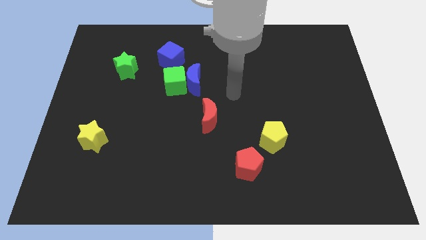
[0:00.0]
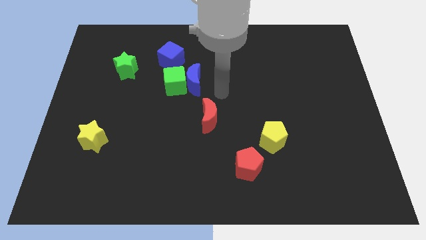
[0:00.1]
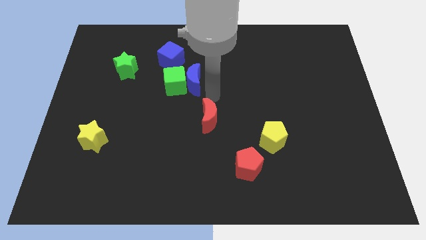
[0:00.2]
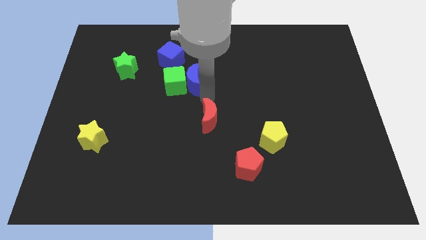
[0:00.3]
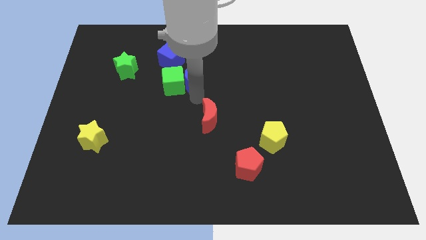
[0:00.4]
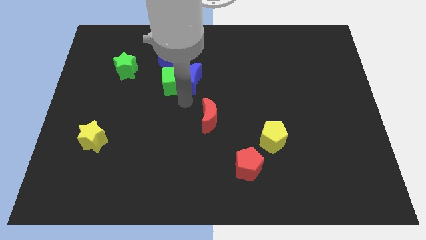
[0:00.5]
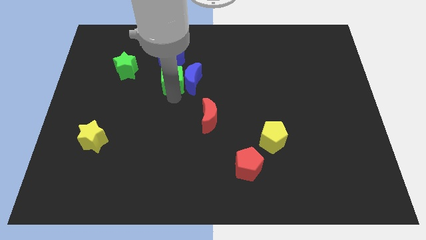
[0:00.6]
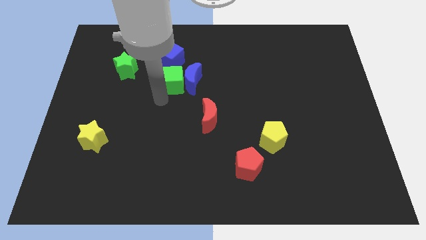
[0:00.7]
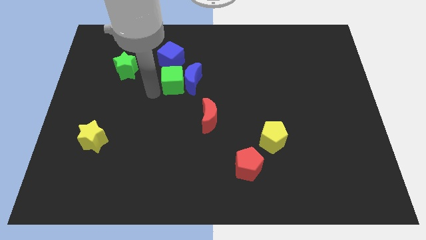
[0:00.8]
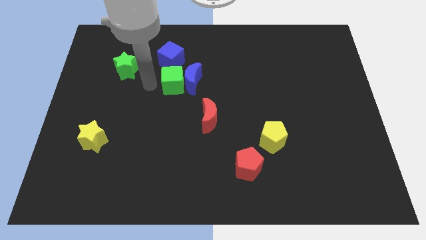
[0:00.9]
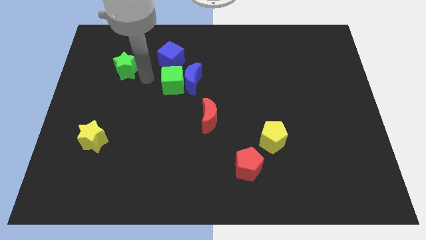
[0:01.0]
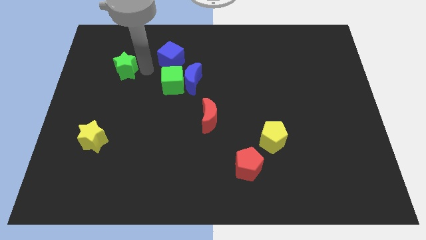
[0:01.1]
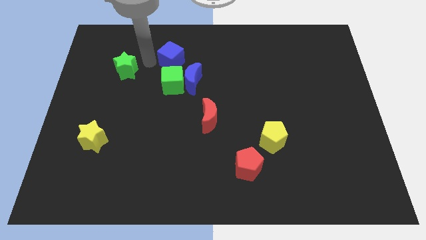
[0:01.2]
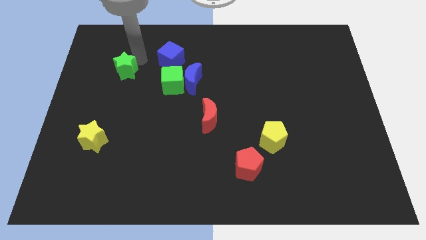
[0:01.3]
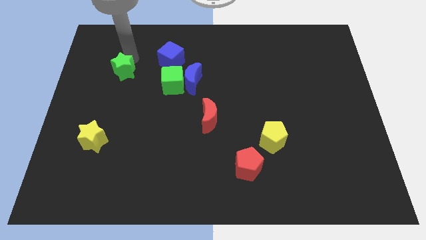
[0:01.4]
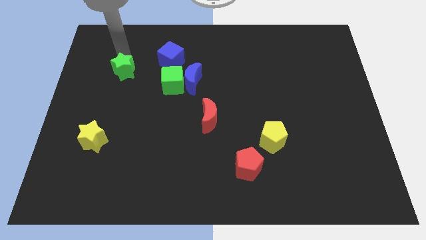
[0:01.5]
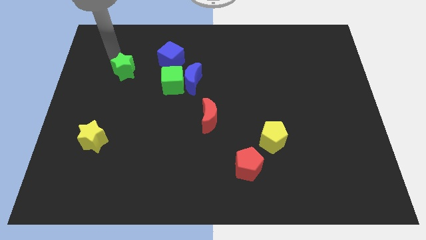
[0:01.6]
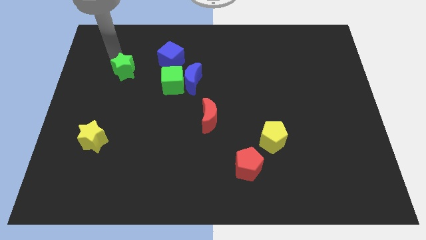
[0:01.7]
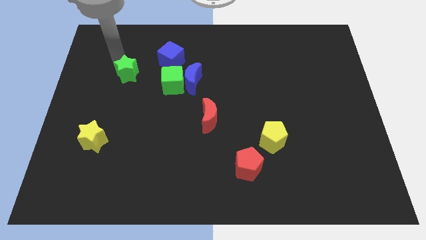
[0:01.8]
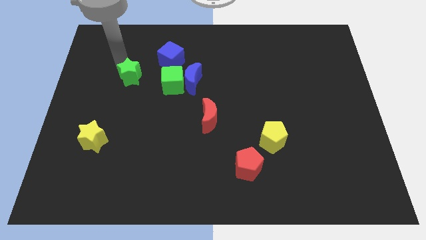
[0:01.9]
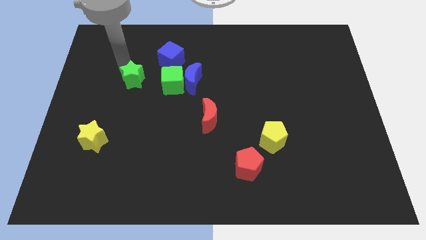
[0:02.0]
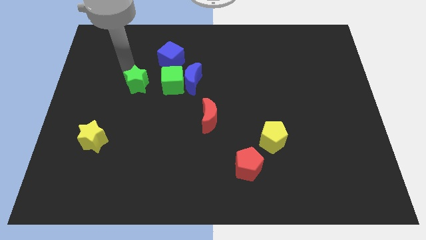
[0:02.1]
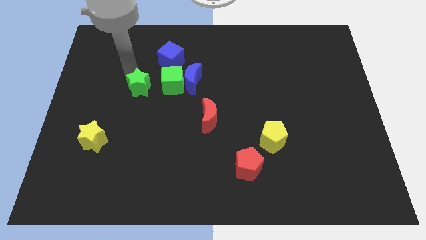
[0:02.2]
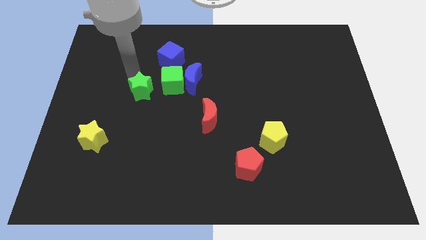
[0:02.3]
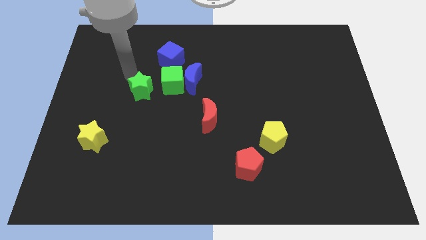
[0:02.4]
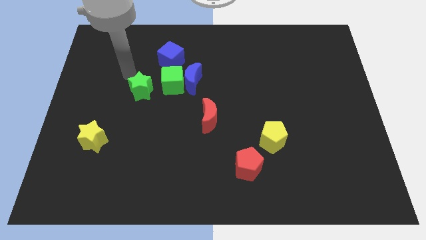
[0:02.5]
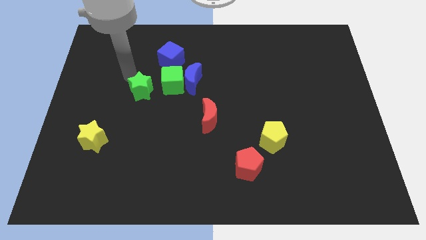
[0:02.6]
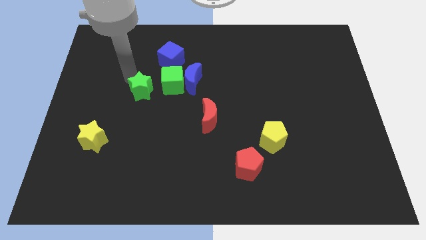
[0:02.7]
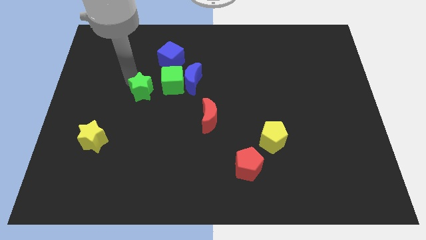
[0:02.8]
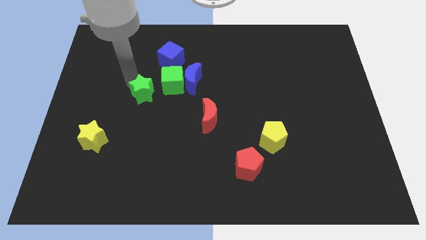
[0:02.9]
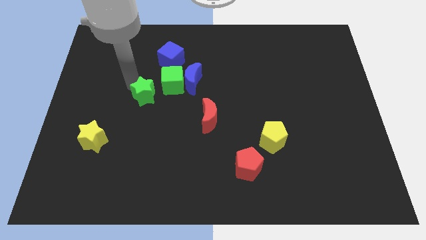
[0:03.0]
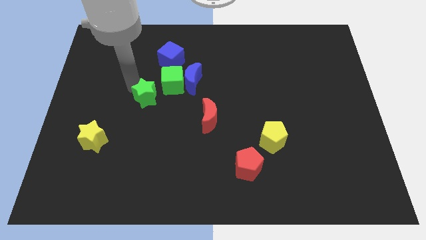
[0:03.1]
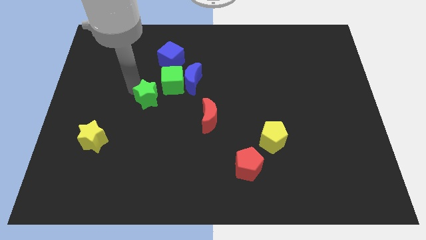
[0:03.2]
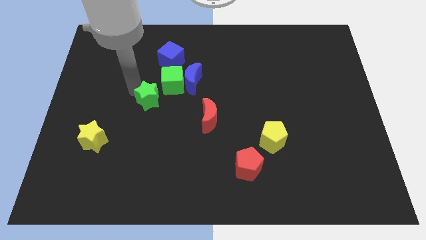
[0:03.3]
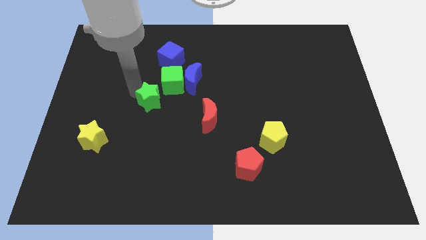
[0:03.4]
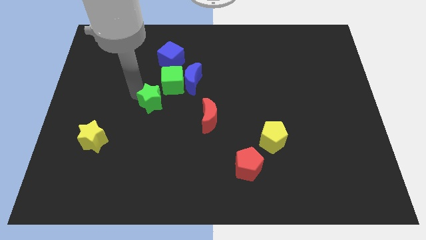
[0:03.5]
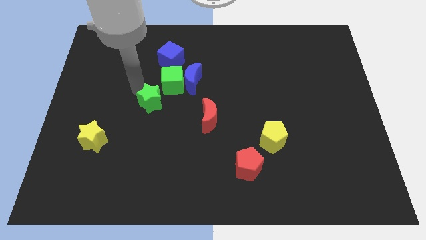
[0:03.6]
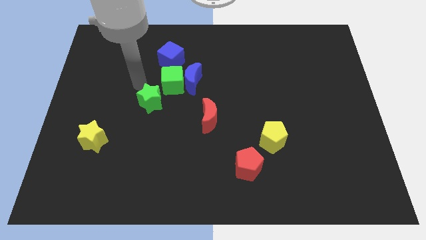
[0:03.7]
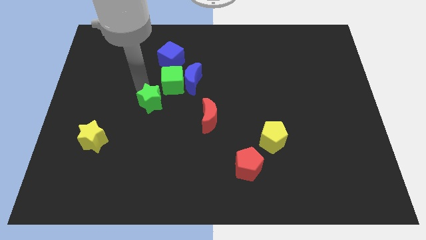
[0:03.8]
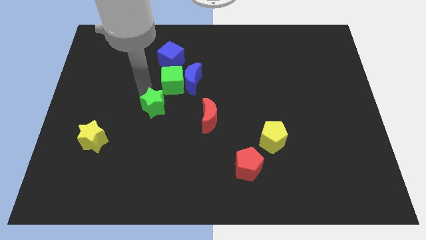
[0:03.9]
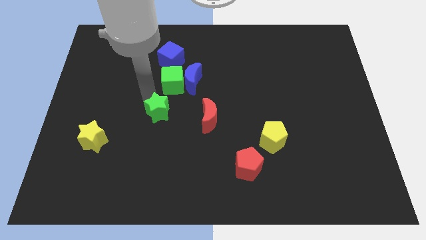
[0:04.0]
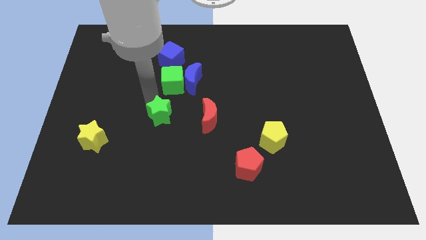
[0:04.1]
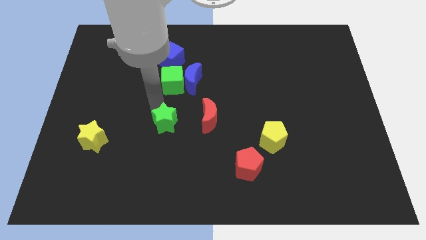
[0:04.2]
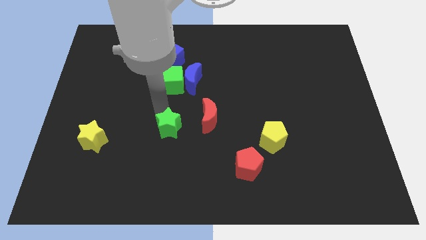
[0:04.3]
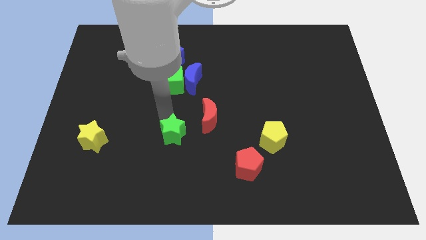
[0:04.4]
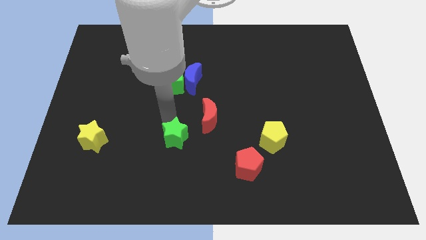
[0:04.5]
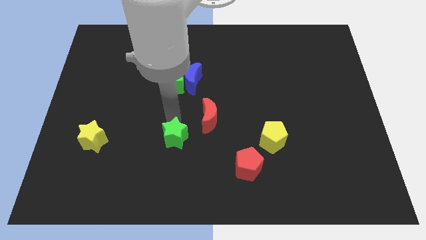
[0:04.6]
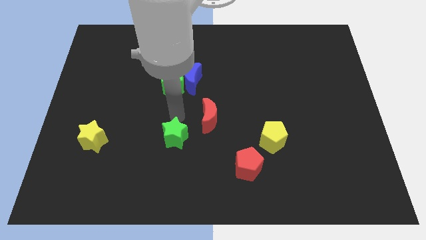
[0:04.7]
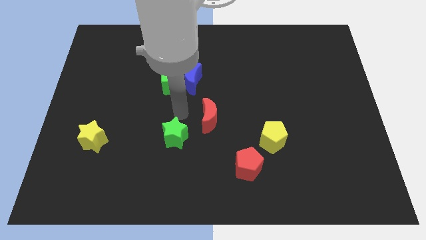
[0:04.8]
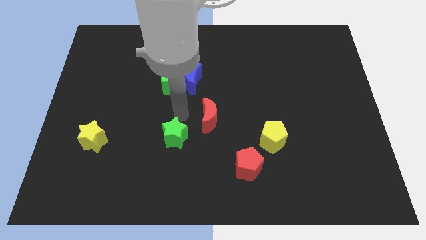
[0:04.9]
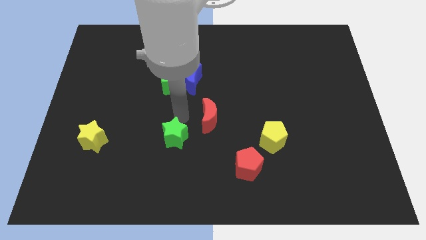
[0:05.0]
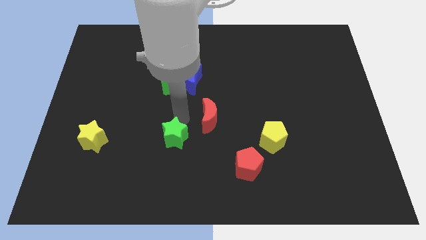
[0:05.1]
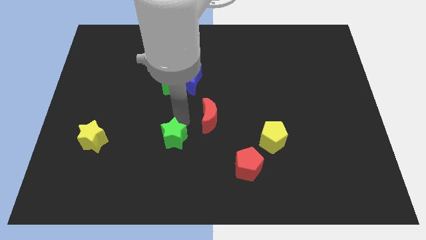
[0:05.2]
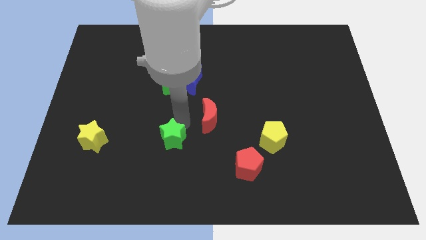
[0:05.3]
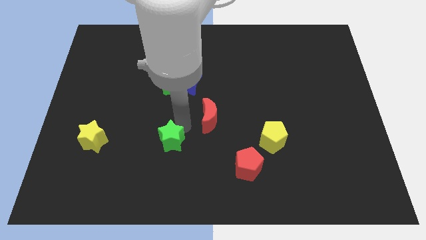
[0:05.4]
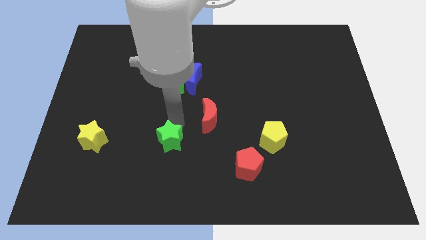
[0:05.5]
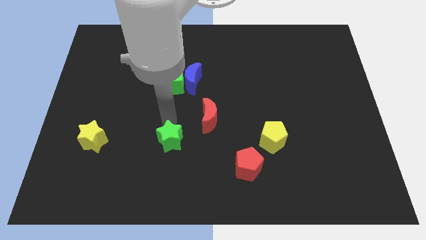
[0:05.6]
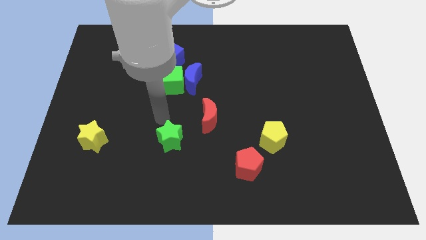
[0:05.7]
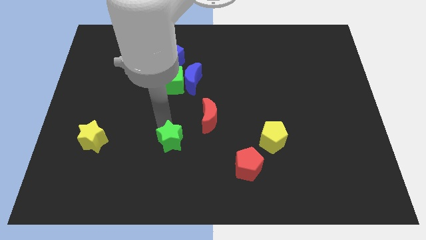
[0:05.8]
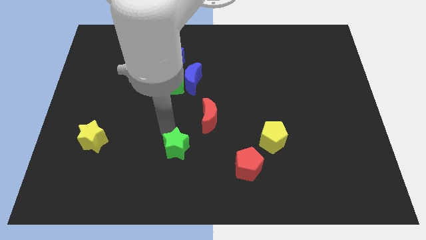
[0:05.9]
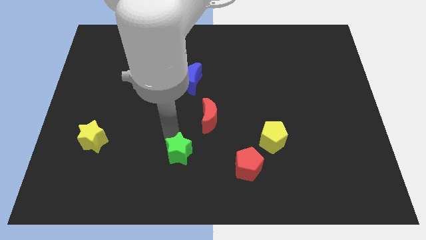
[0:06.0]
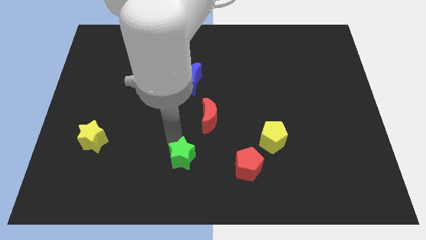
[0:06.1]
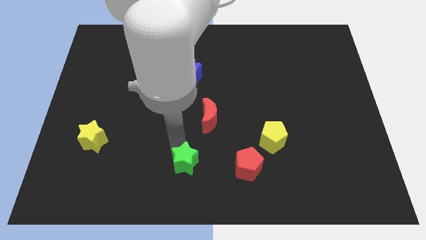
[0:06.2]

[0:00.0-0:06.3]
push the green star to the bottom side

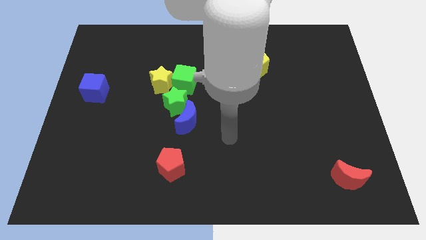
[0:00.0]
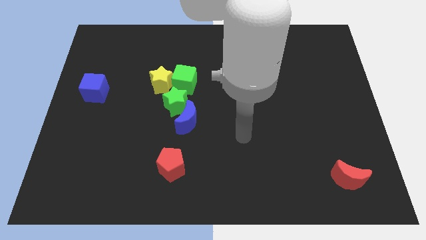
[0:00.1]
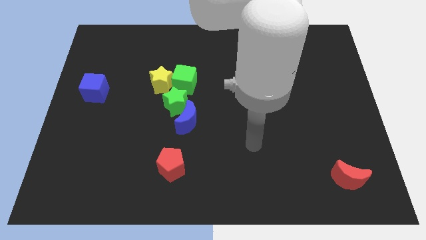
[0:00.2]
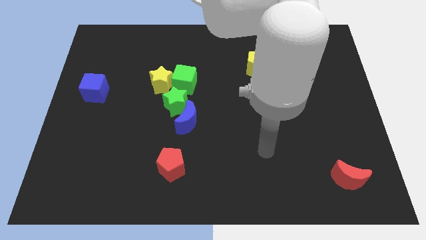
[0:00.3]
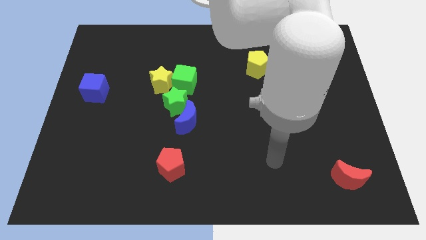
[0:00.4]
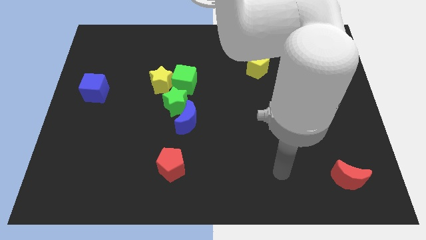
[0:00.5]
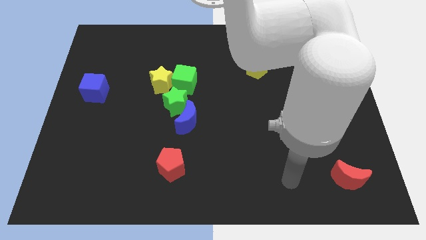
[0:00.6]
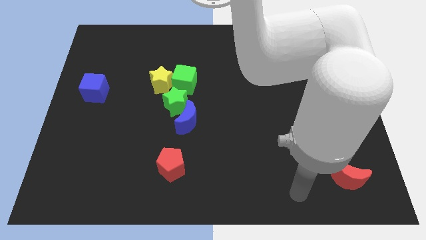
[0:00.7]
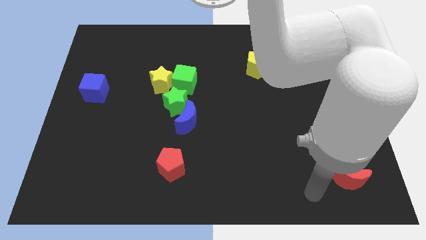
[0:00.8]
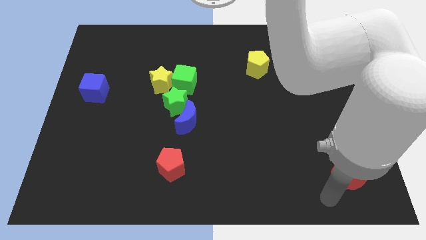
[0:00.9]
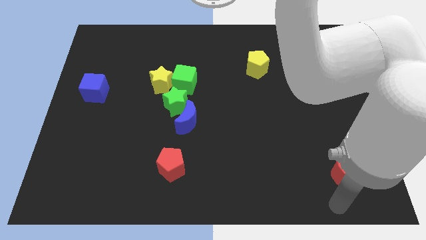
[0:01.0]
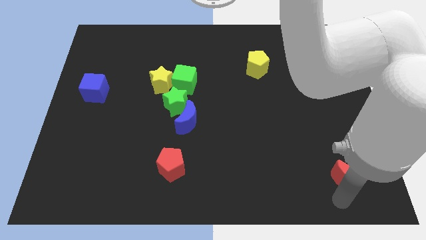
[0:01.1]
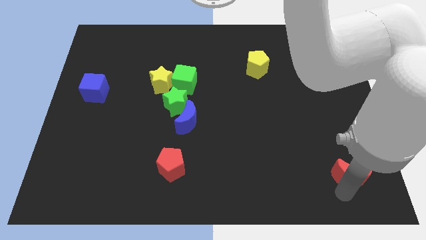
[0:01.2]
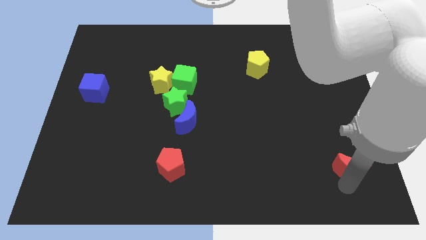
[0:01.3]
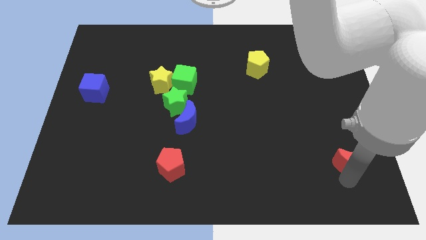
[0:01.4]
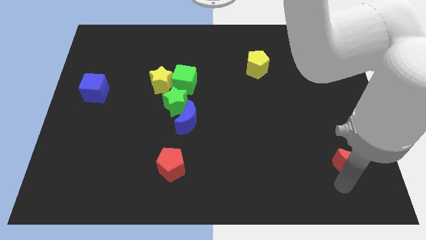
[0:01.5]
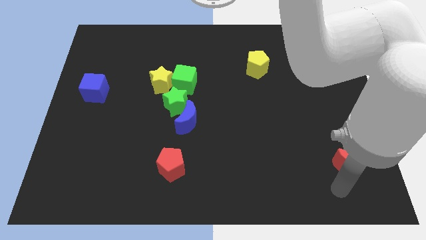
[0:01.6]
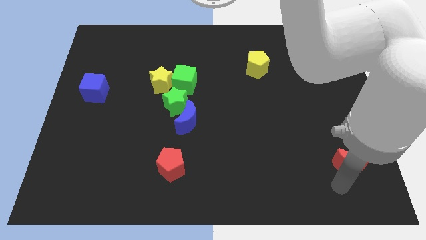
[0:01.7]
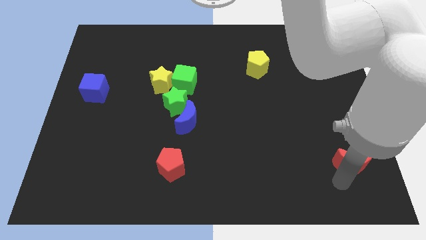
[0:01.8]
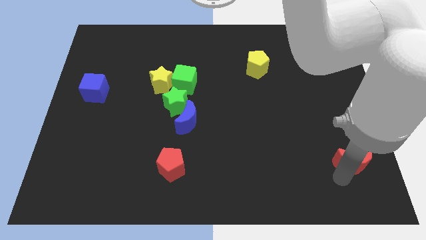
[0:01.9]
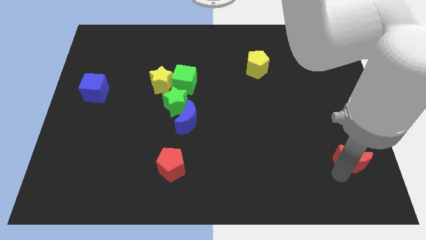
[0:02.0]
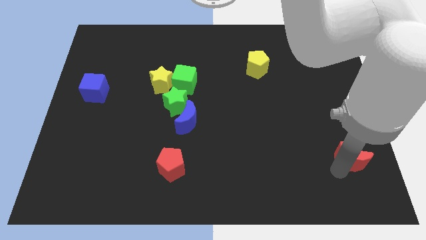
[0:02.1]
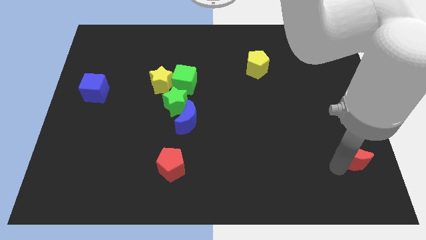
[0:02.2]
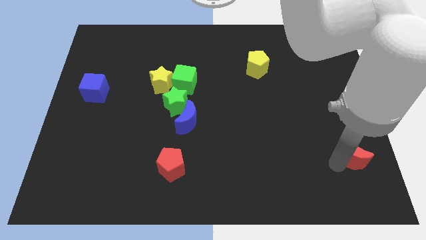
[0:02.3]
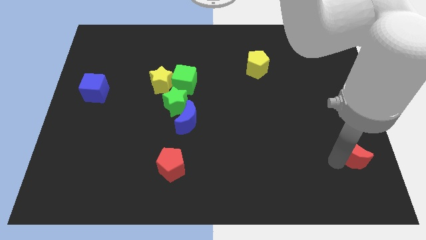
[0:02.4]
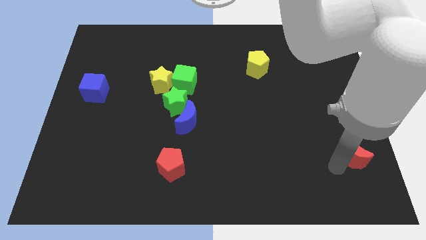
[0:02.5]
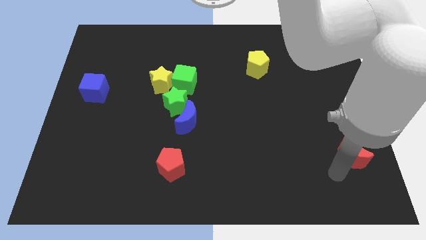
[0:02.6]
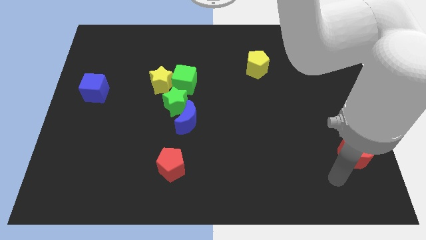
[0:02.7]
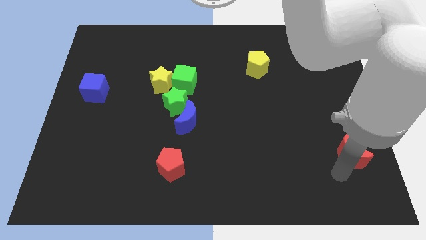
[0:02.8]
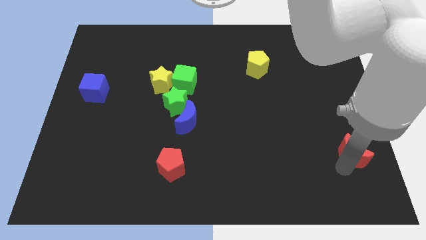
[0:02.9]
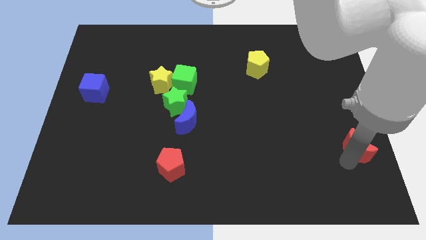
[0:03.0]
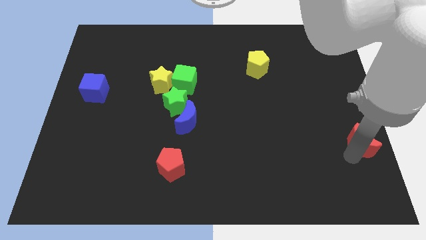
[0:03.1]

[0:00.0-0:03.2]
move the red moon to the right side of the board
